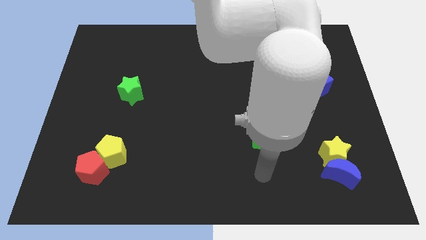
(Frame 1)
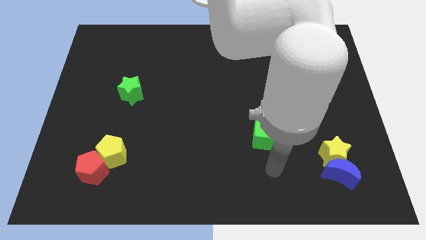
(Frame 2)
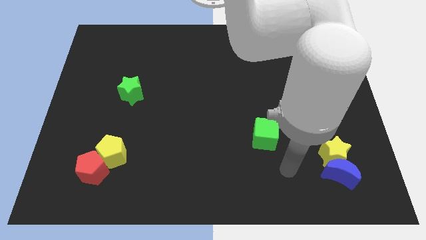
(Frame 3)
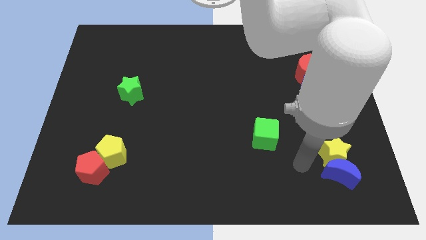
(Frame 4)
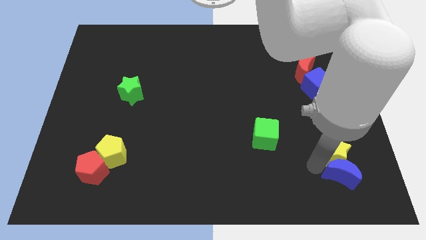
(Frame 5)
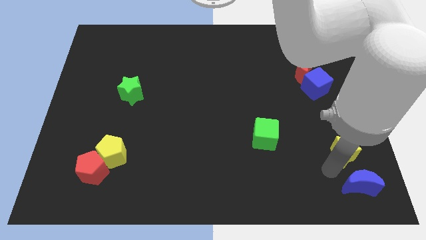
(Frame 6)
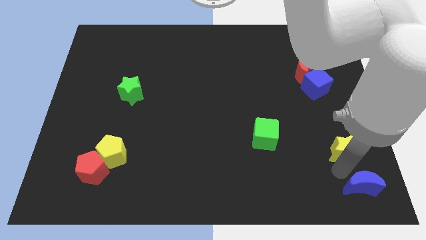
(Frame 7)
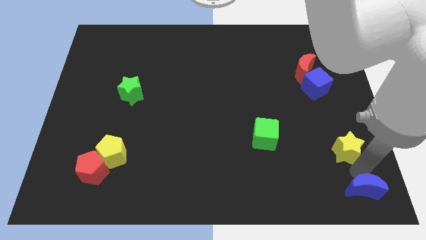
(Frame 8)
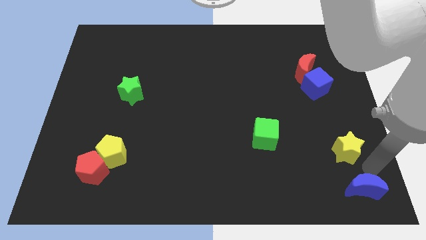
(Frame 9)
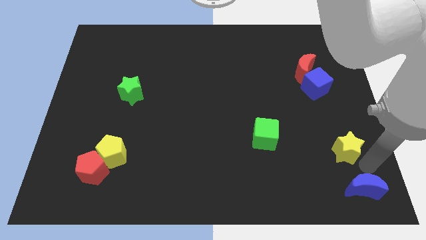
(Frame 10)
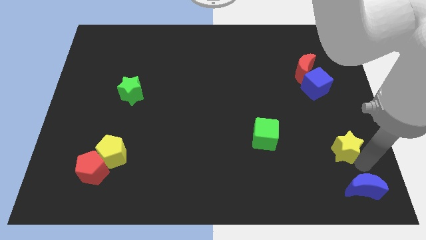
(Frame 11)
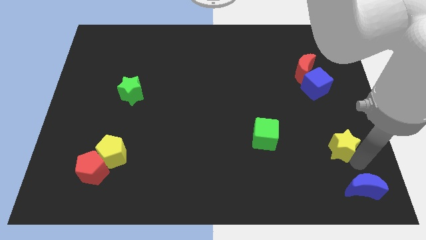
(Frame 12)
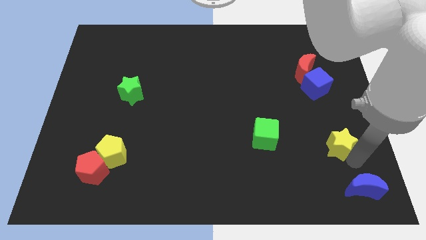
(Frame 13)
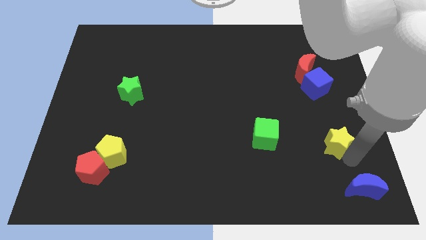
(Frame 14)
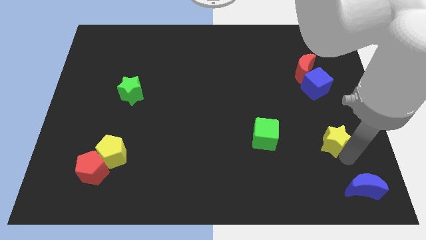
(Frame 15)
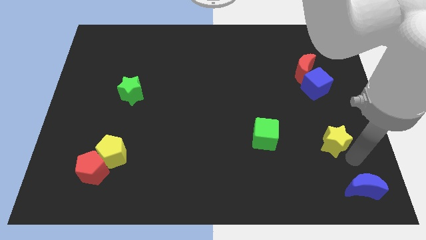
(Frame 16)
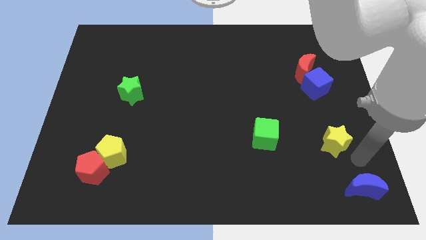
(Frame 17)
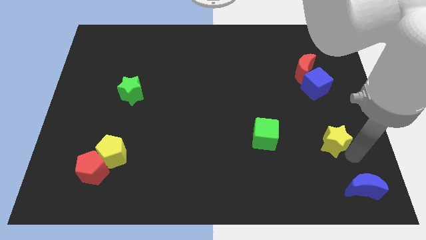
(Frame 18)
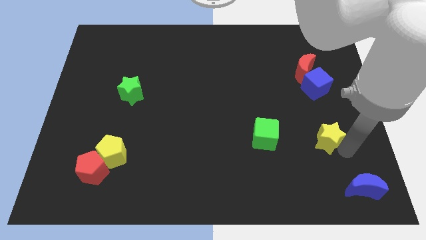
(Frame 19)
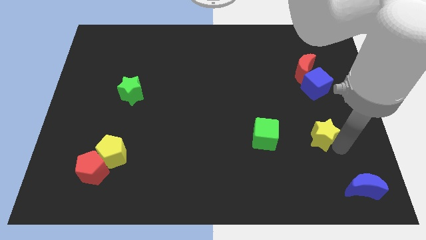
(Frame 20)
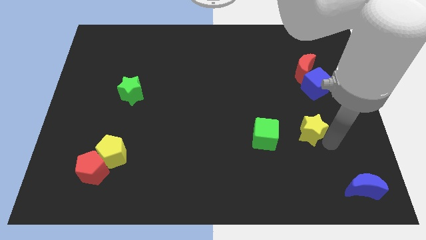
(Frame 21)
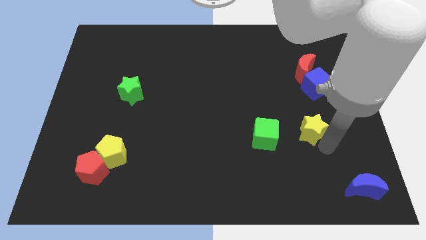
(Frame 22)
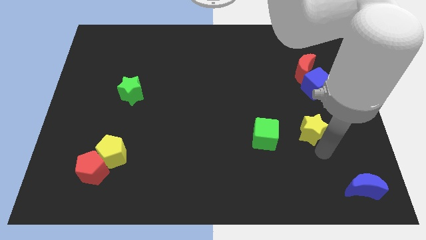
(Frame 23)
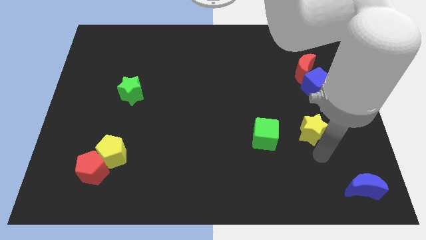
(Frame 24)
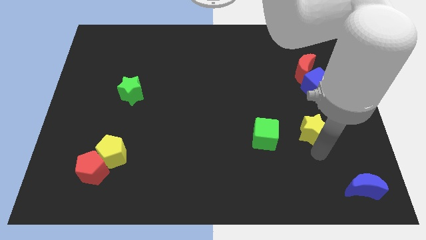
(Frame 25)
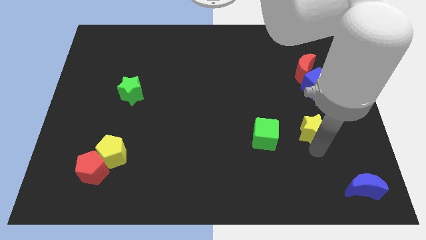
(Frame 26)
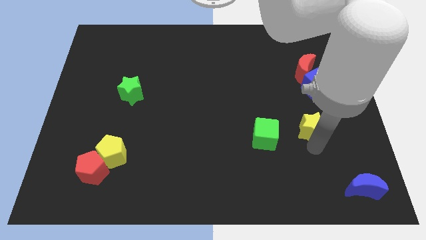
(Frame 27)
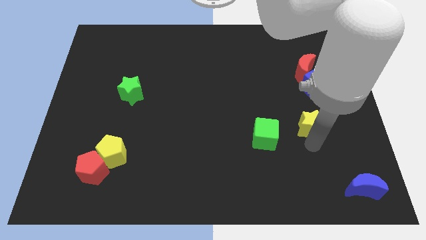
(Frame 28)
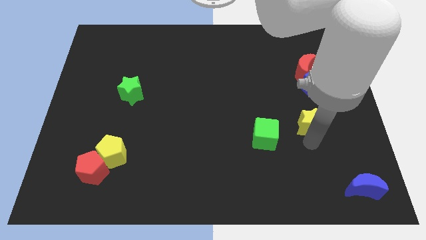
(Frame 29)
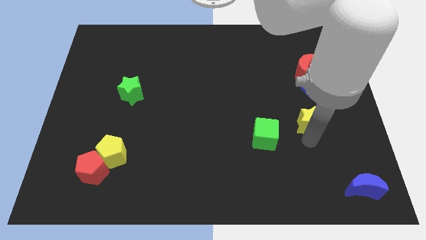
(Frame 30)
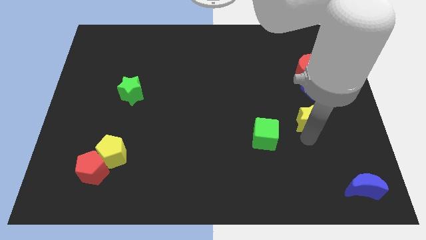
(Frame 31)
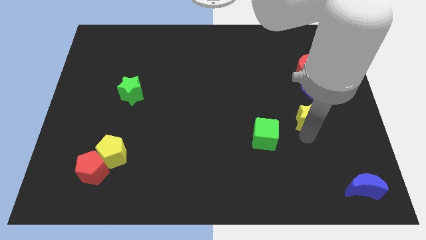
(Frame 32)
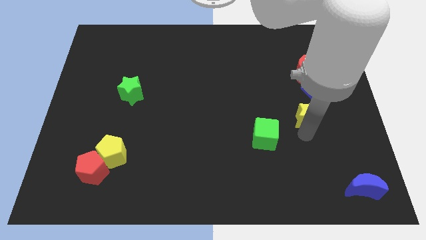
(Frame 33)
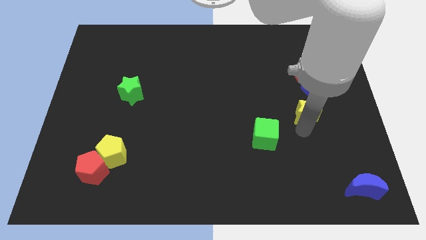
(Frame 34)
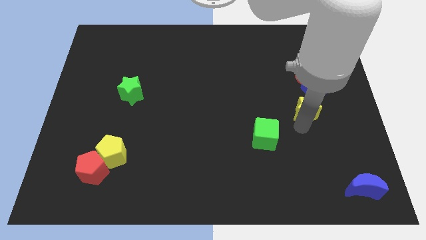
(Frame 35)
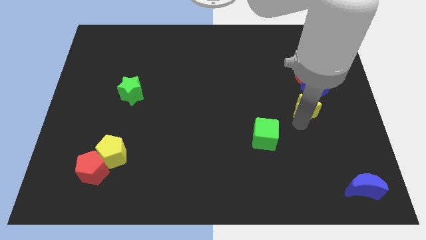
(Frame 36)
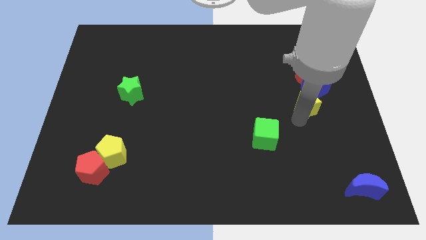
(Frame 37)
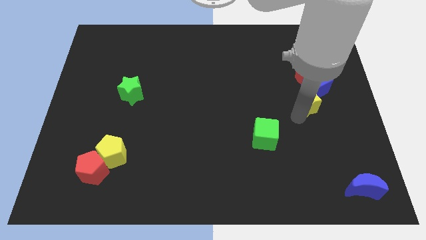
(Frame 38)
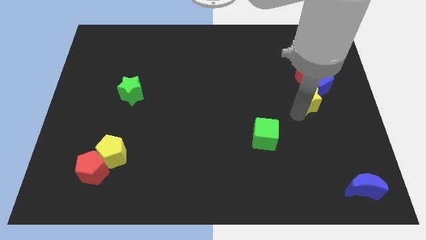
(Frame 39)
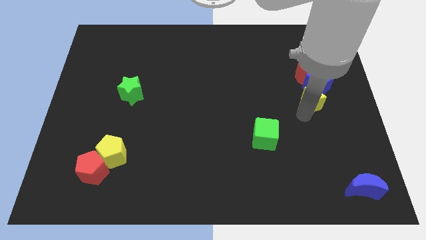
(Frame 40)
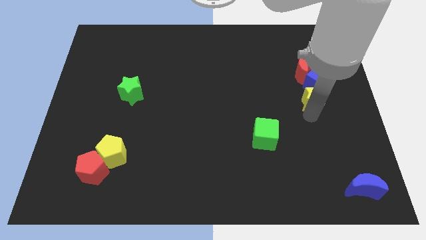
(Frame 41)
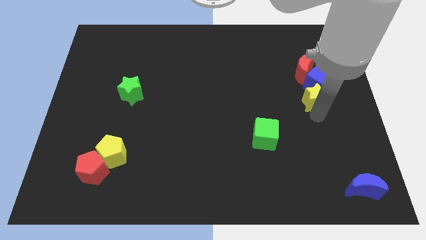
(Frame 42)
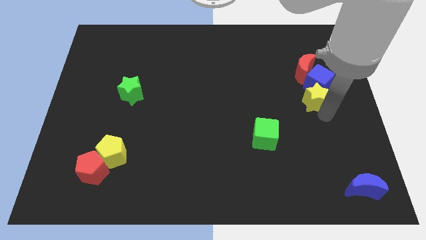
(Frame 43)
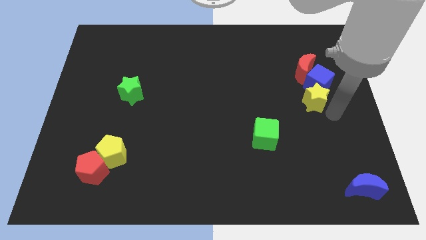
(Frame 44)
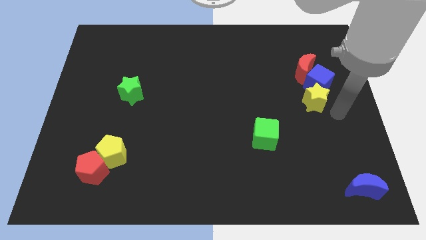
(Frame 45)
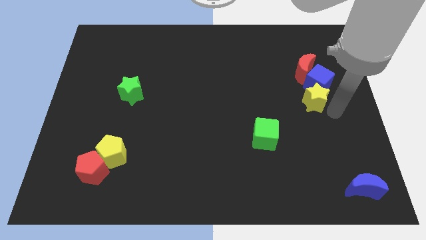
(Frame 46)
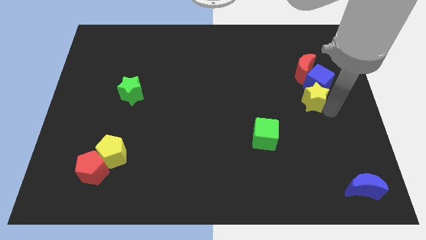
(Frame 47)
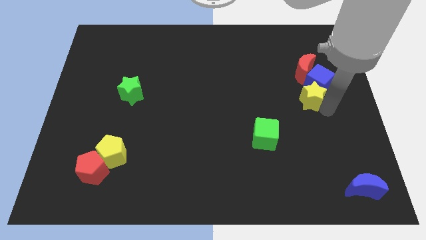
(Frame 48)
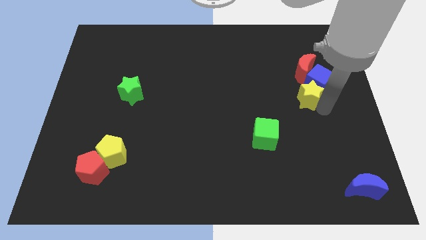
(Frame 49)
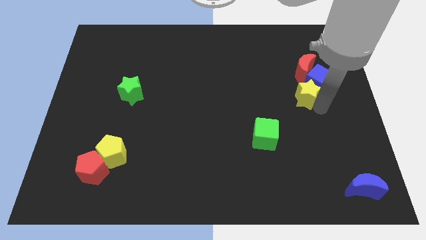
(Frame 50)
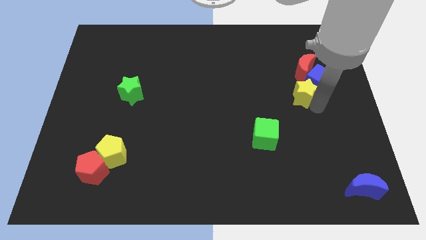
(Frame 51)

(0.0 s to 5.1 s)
slide the yellow star diagonally down and to the left of the red moon

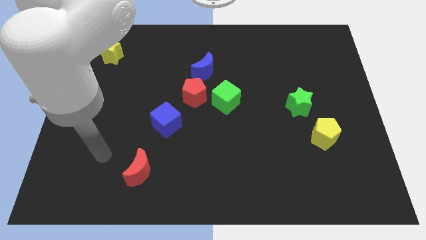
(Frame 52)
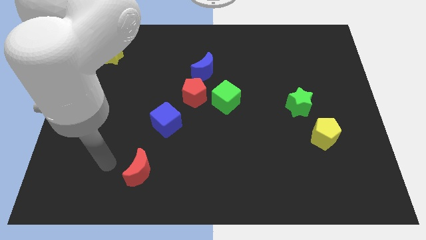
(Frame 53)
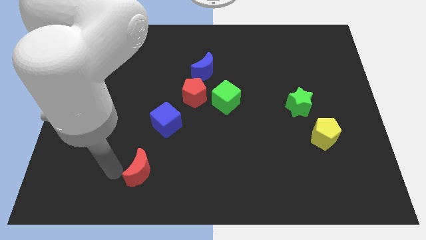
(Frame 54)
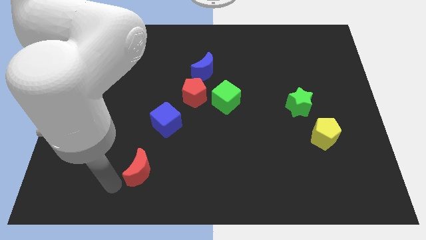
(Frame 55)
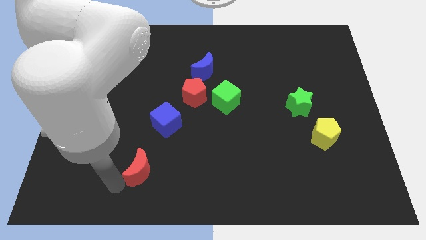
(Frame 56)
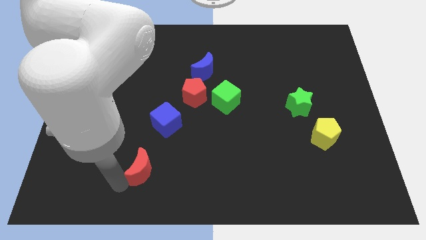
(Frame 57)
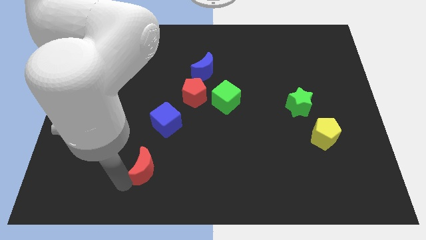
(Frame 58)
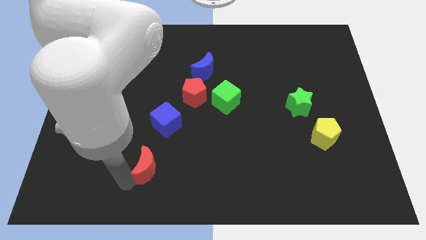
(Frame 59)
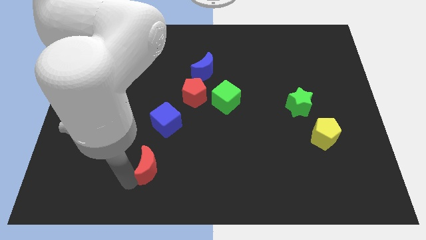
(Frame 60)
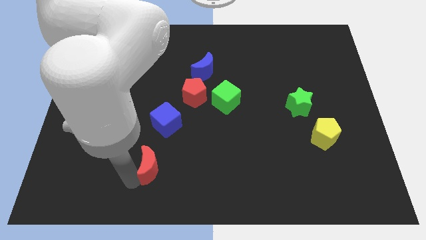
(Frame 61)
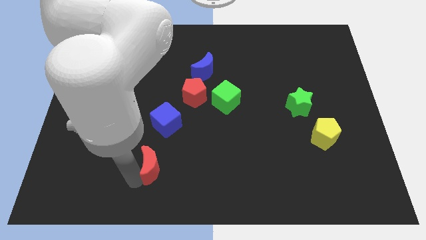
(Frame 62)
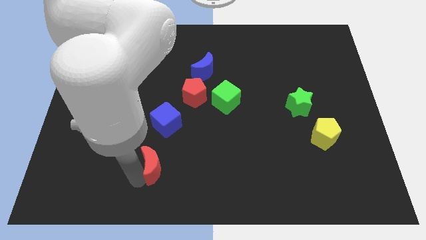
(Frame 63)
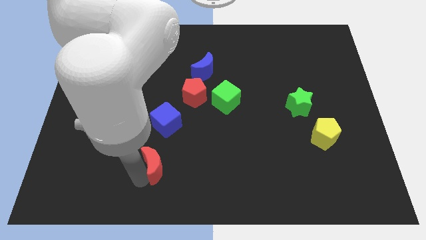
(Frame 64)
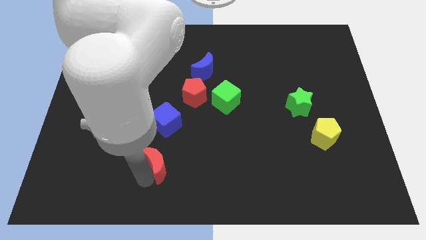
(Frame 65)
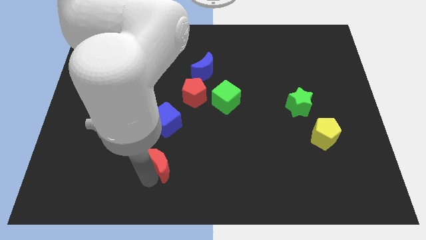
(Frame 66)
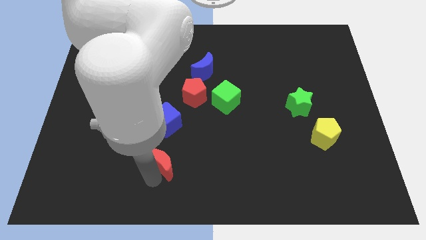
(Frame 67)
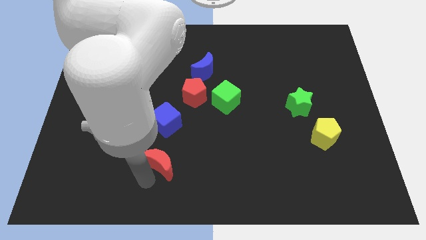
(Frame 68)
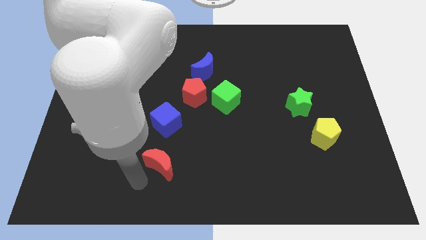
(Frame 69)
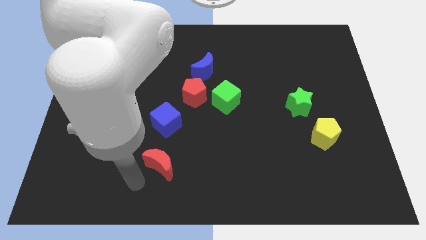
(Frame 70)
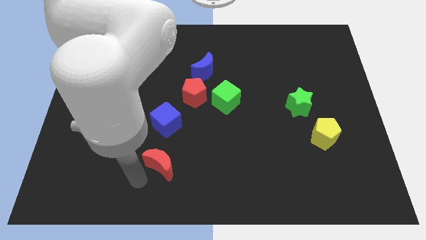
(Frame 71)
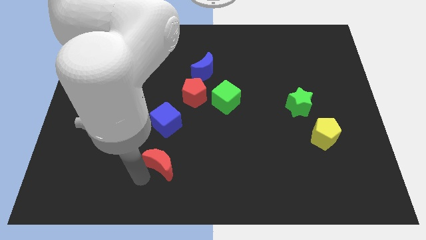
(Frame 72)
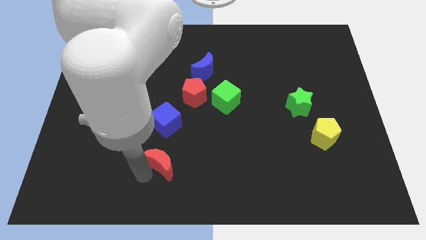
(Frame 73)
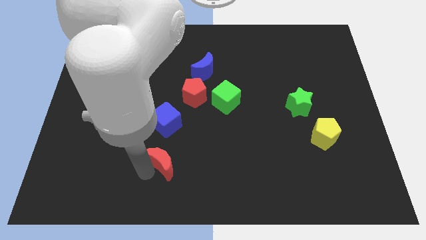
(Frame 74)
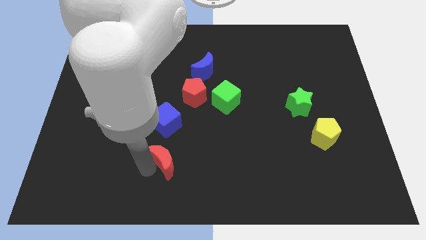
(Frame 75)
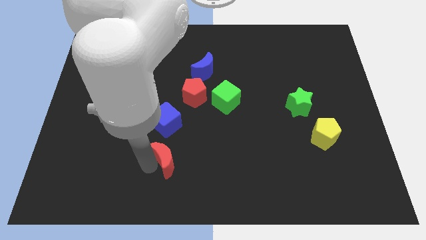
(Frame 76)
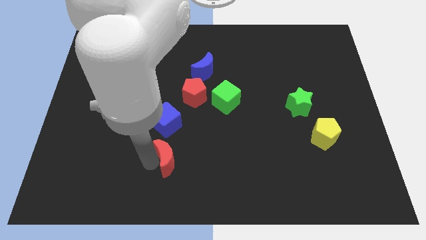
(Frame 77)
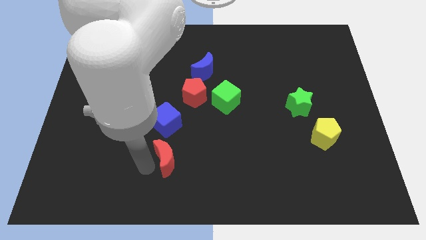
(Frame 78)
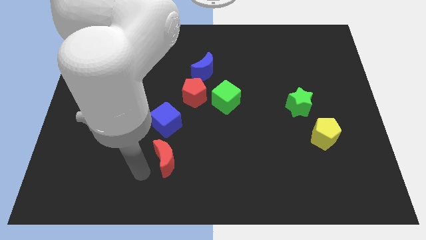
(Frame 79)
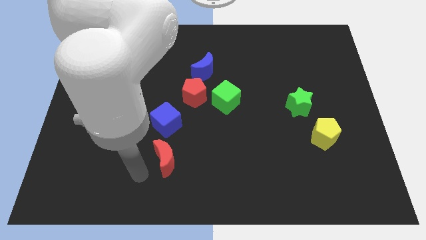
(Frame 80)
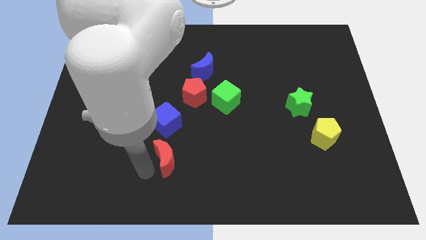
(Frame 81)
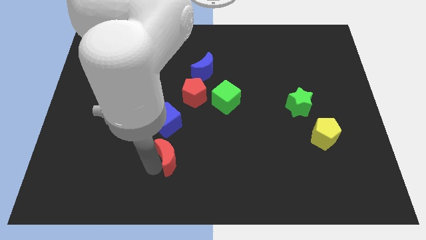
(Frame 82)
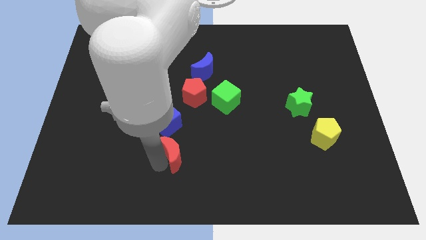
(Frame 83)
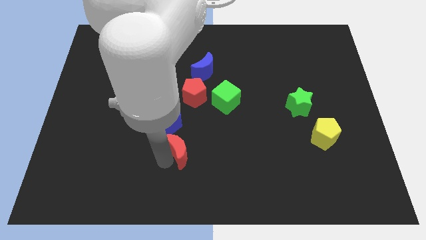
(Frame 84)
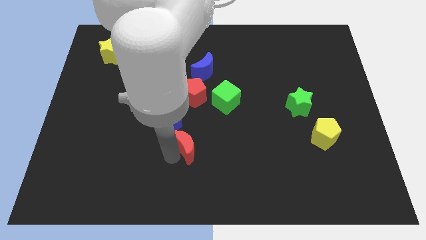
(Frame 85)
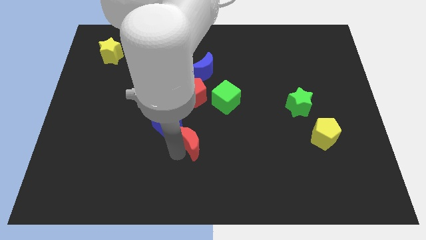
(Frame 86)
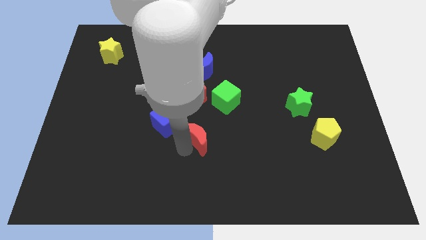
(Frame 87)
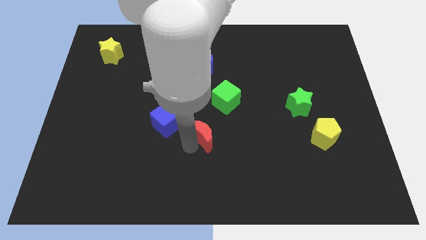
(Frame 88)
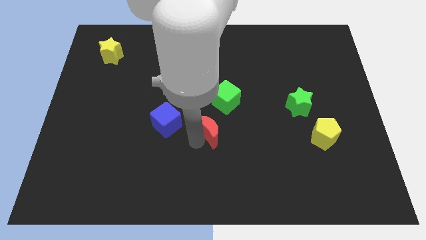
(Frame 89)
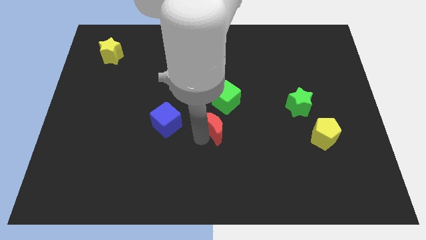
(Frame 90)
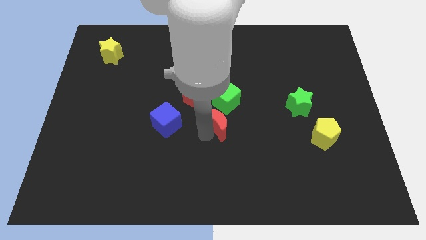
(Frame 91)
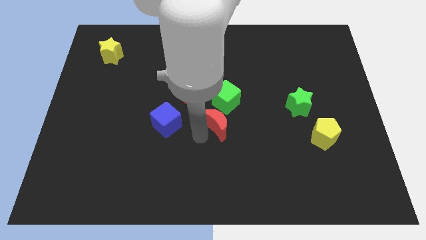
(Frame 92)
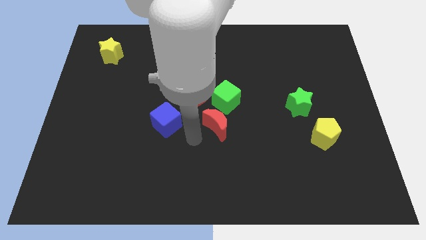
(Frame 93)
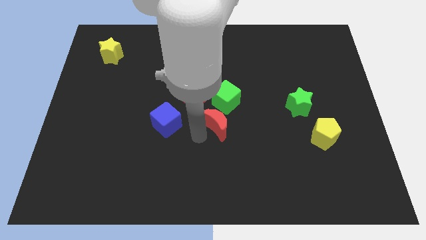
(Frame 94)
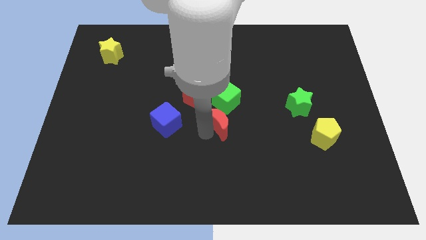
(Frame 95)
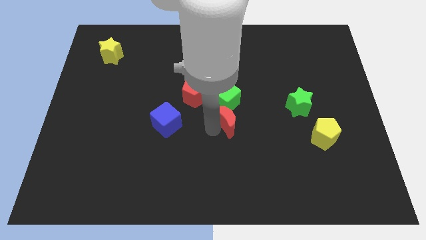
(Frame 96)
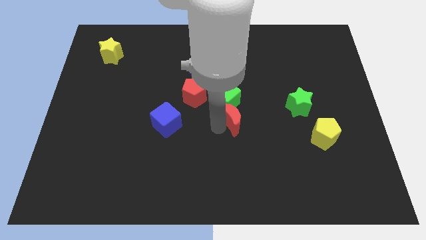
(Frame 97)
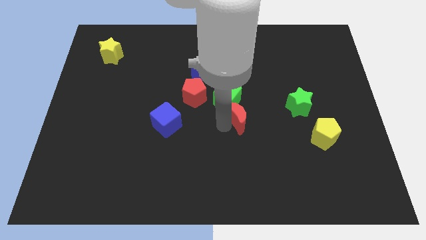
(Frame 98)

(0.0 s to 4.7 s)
put the red moon just left of the green star
